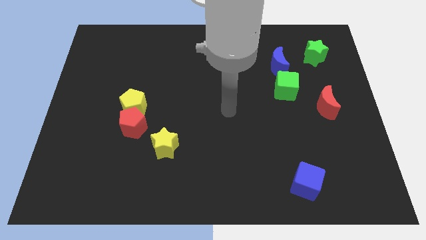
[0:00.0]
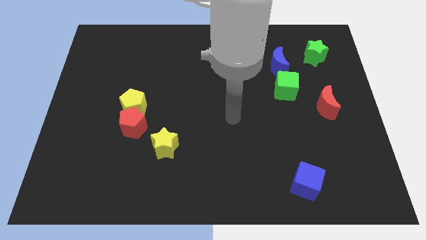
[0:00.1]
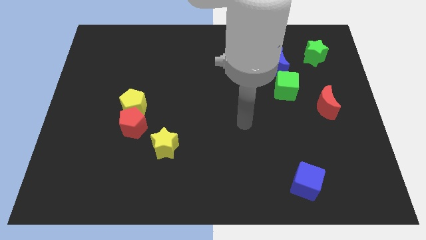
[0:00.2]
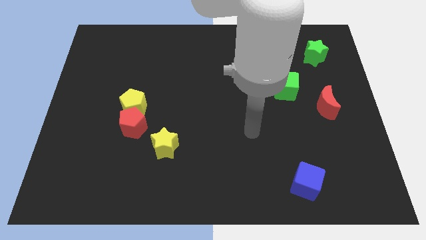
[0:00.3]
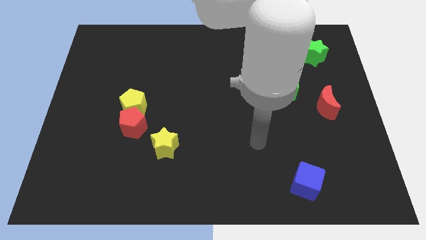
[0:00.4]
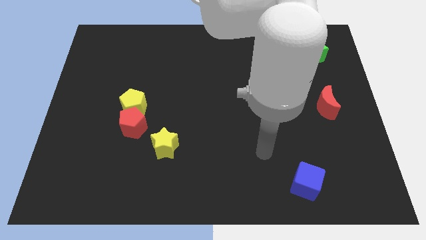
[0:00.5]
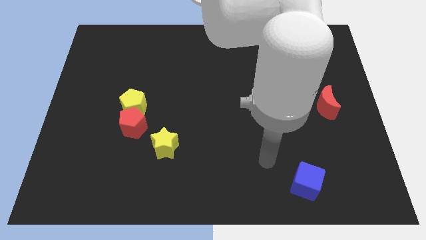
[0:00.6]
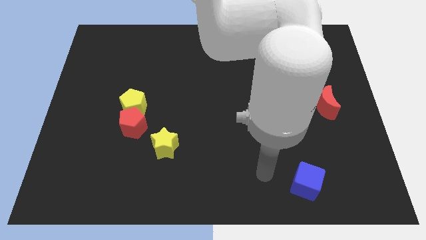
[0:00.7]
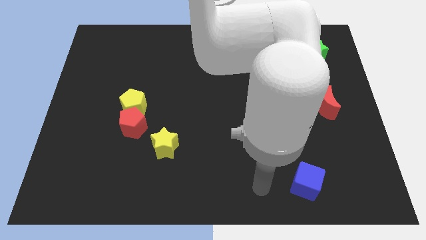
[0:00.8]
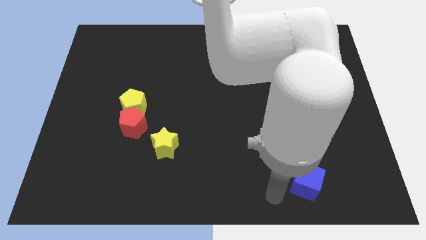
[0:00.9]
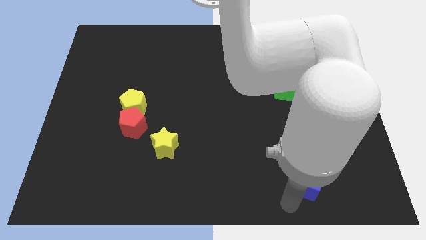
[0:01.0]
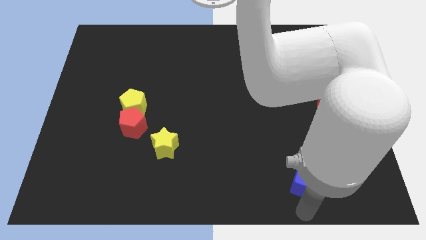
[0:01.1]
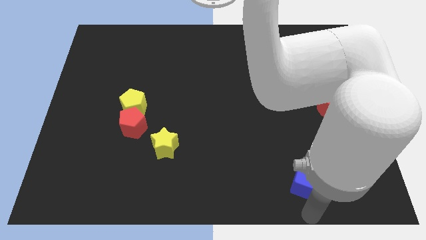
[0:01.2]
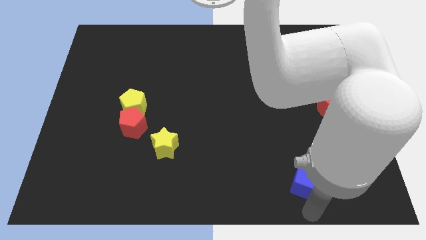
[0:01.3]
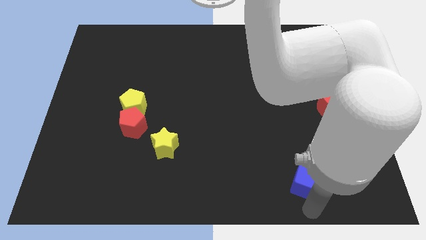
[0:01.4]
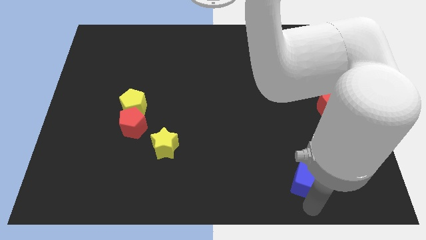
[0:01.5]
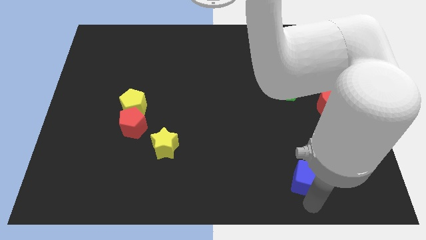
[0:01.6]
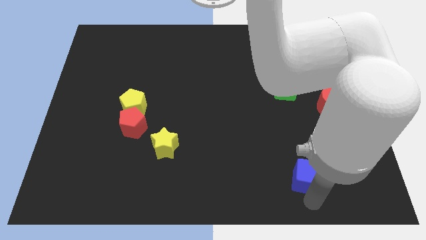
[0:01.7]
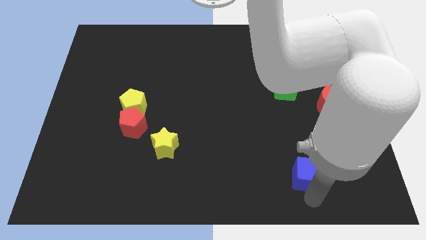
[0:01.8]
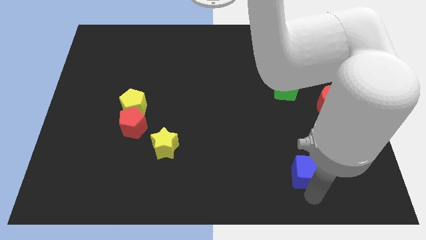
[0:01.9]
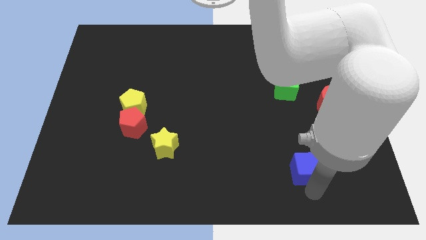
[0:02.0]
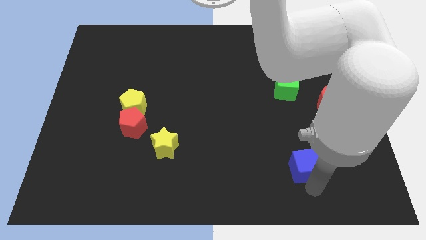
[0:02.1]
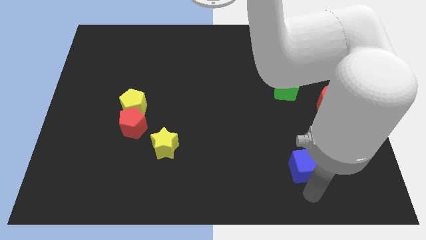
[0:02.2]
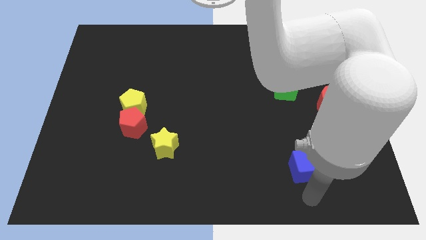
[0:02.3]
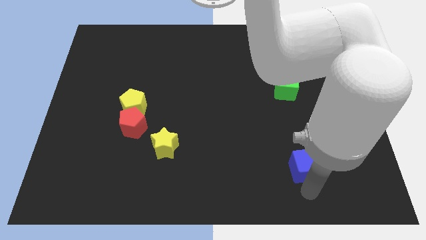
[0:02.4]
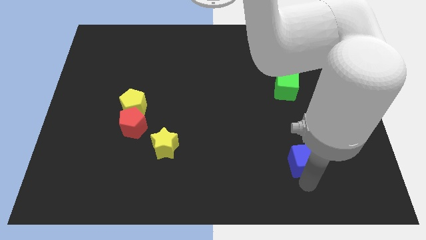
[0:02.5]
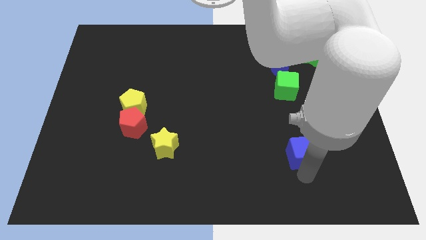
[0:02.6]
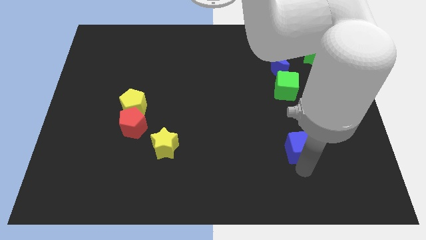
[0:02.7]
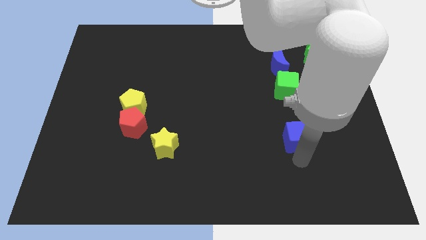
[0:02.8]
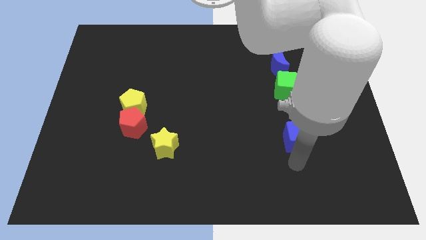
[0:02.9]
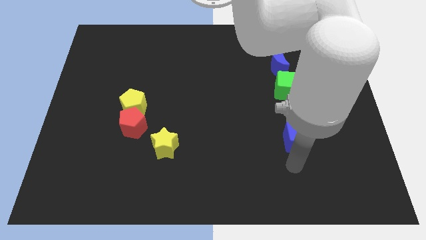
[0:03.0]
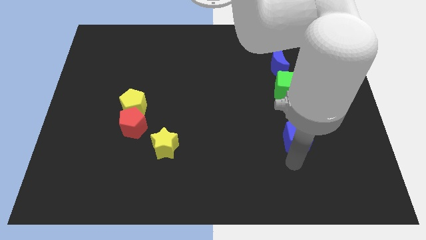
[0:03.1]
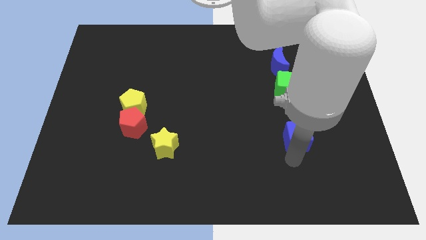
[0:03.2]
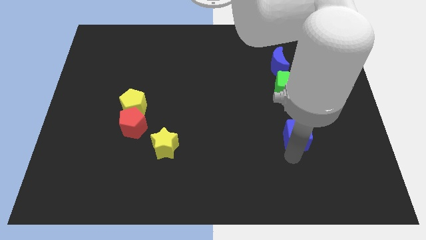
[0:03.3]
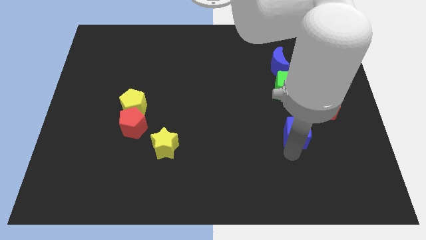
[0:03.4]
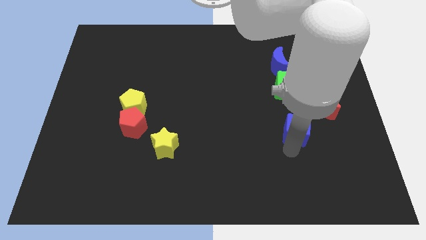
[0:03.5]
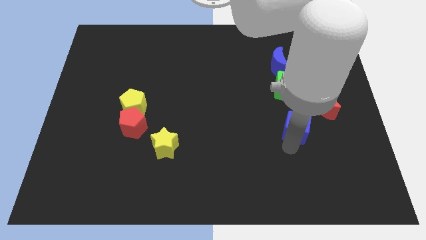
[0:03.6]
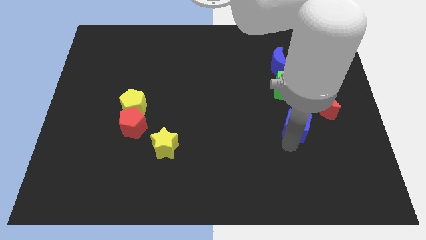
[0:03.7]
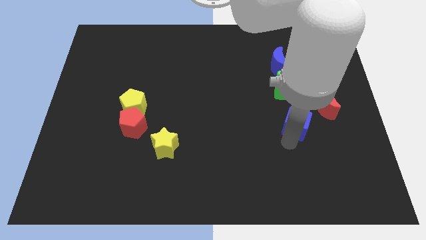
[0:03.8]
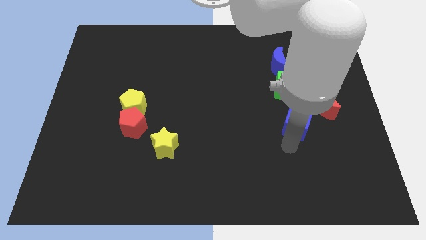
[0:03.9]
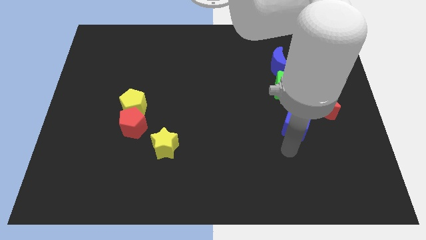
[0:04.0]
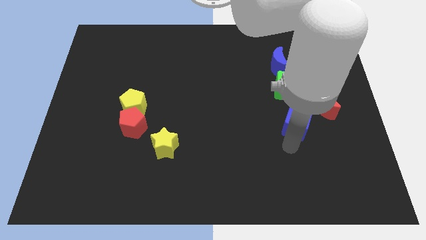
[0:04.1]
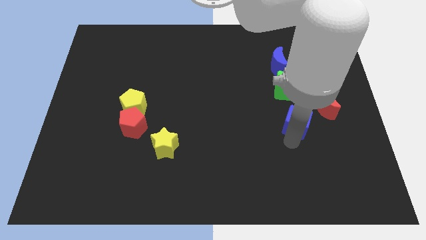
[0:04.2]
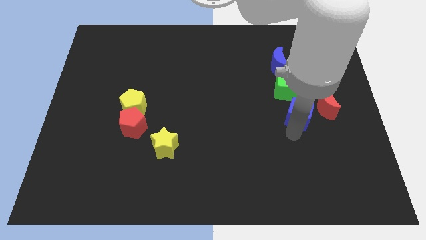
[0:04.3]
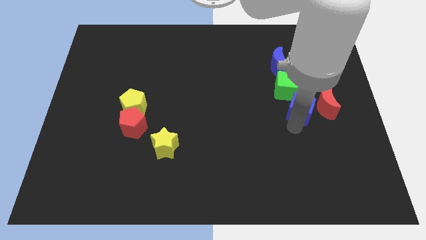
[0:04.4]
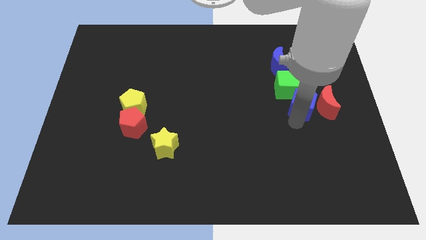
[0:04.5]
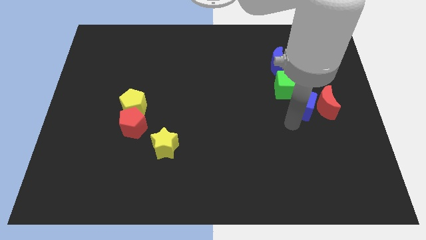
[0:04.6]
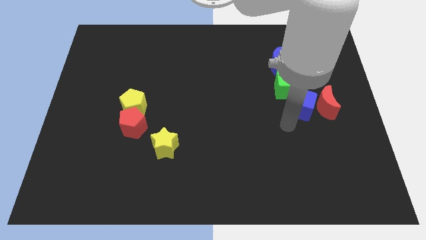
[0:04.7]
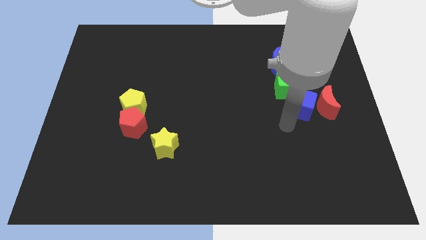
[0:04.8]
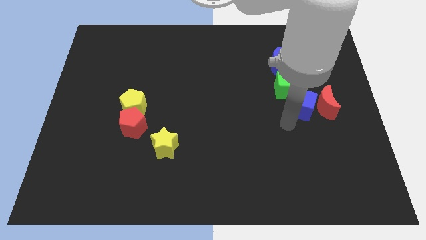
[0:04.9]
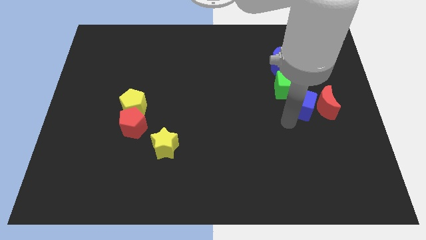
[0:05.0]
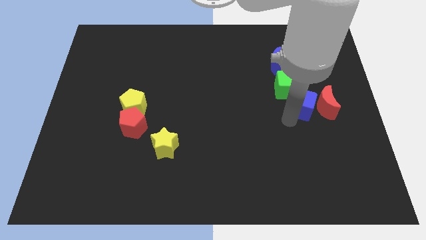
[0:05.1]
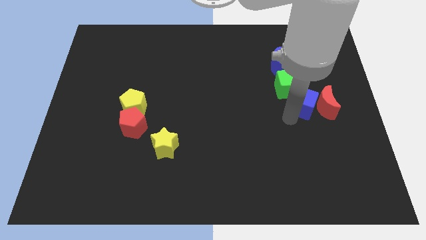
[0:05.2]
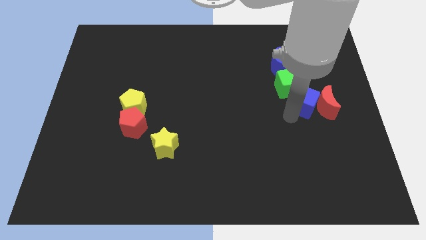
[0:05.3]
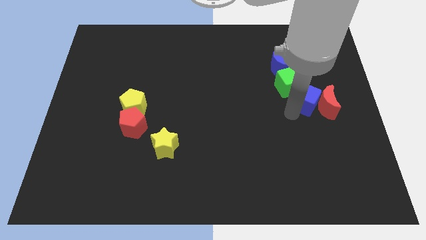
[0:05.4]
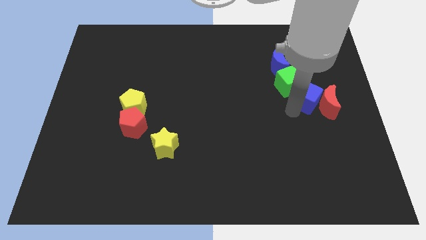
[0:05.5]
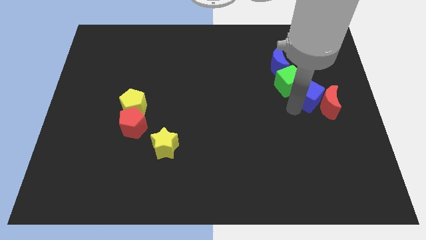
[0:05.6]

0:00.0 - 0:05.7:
slide the blue cube to the bottom side of the green star

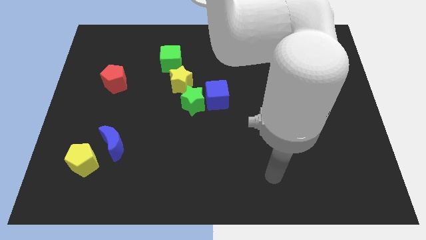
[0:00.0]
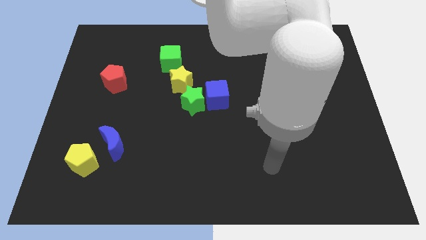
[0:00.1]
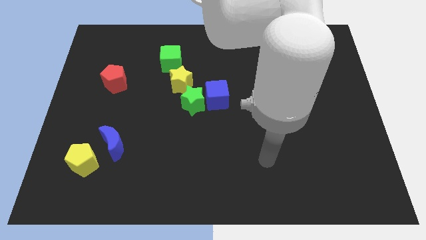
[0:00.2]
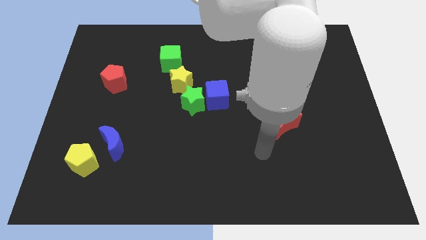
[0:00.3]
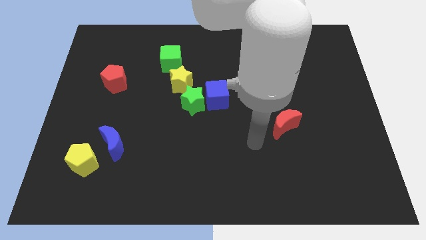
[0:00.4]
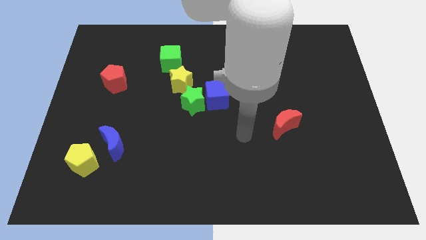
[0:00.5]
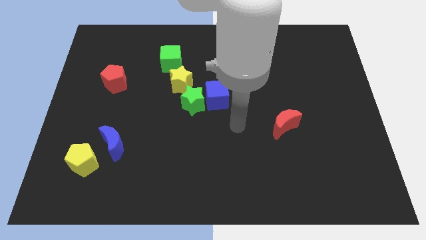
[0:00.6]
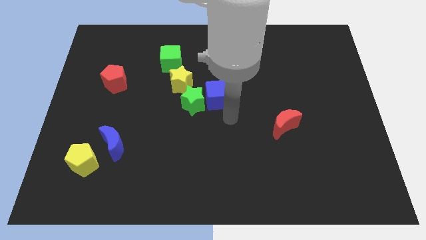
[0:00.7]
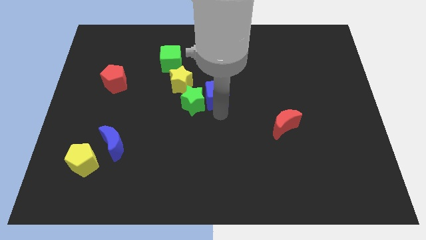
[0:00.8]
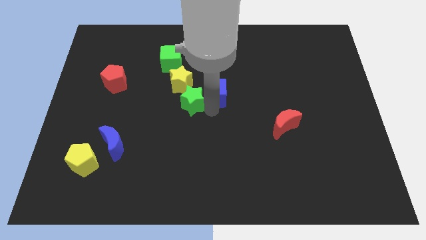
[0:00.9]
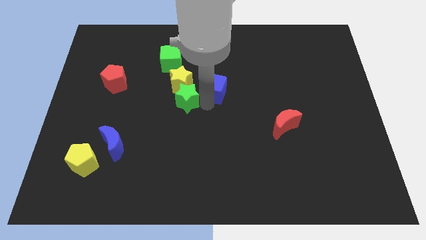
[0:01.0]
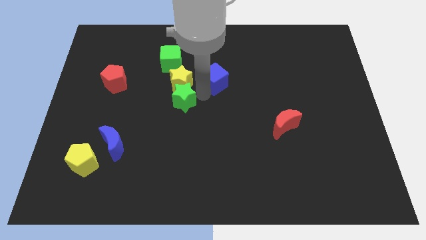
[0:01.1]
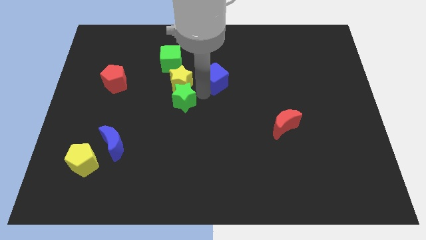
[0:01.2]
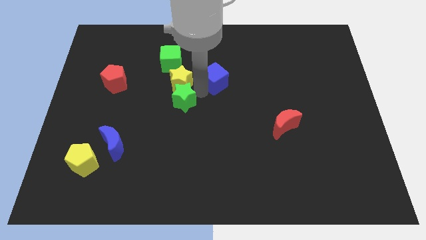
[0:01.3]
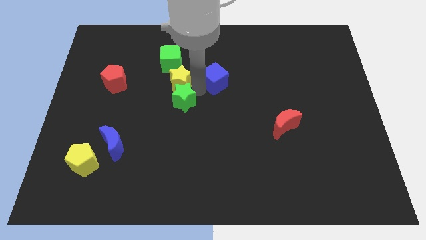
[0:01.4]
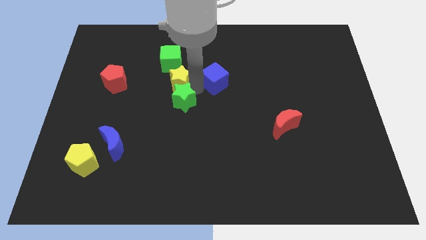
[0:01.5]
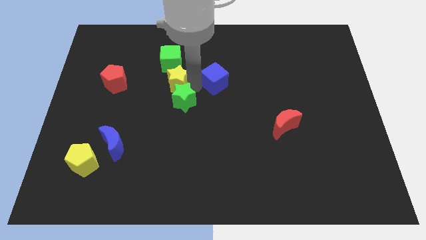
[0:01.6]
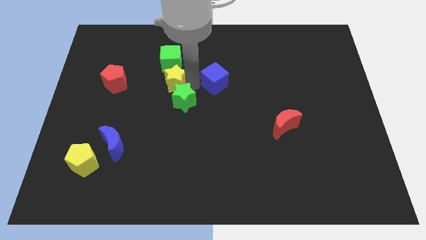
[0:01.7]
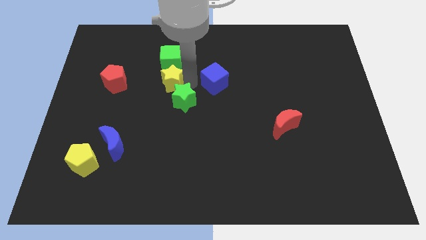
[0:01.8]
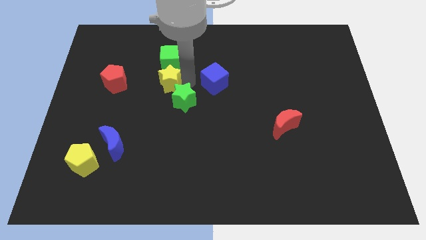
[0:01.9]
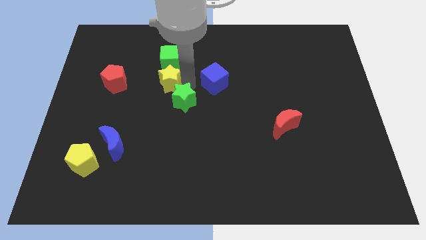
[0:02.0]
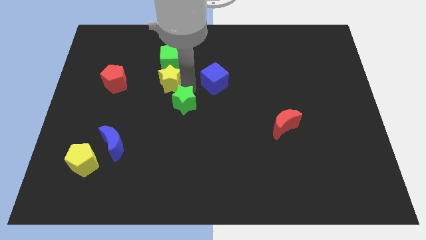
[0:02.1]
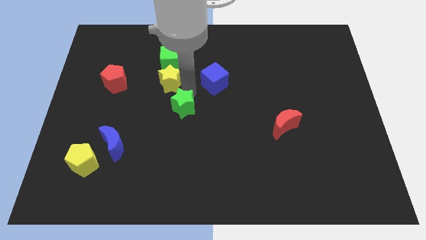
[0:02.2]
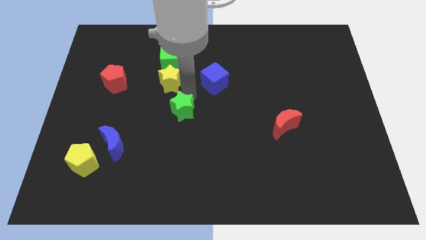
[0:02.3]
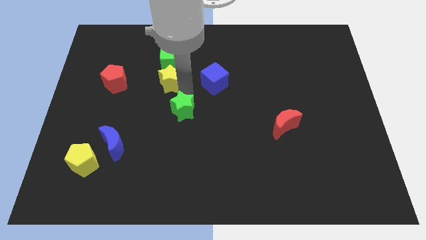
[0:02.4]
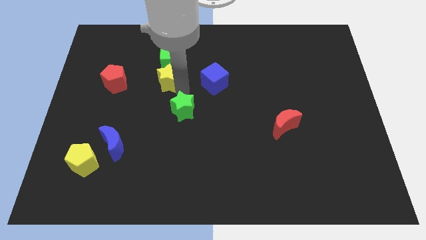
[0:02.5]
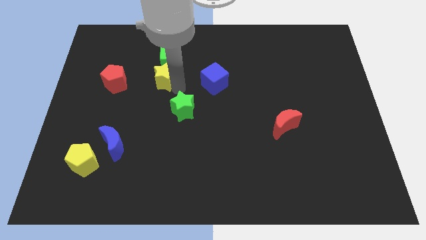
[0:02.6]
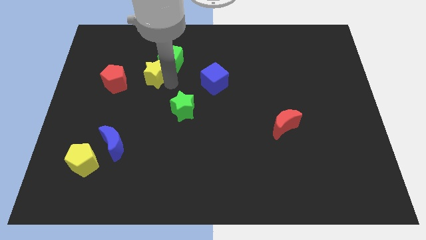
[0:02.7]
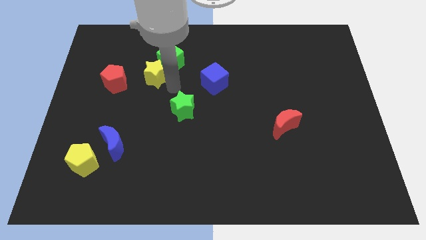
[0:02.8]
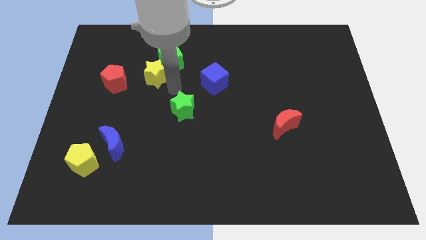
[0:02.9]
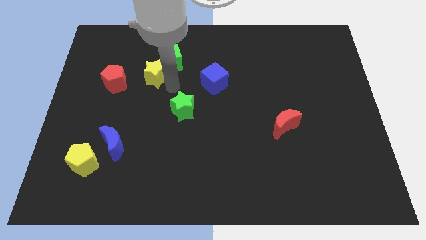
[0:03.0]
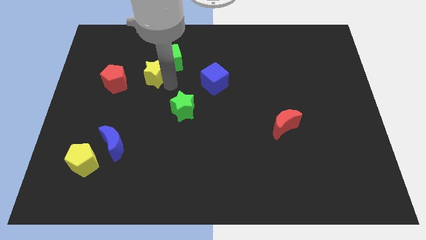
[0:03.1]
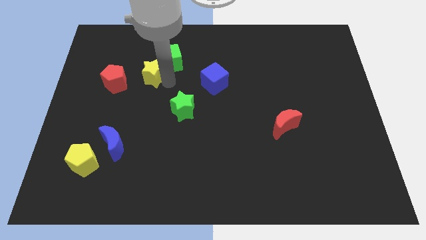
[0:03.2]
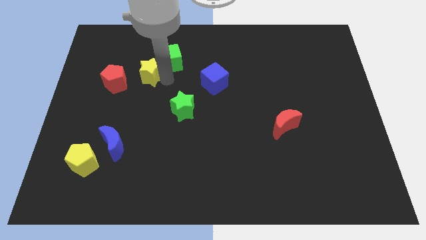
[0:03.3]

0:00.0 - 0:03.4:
put the yellow star left of the green cube
